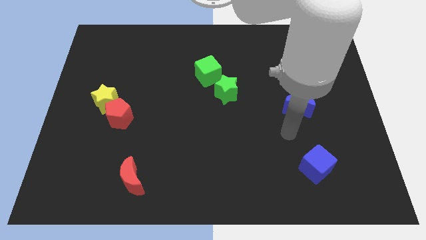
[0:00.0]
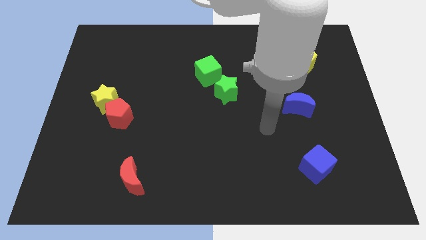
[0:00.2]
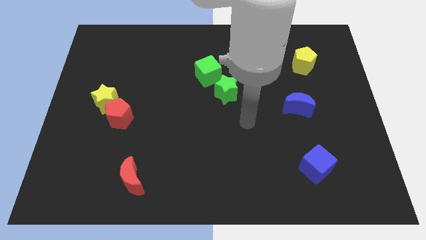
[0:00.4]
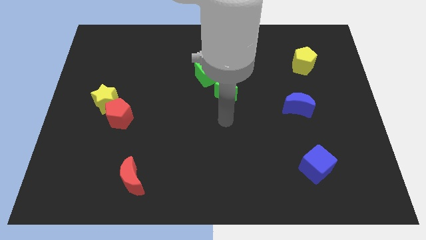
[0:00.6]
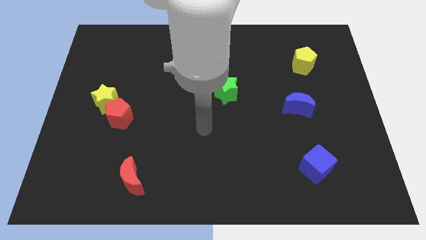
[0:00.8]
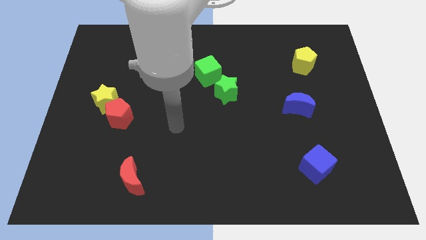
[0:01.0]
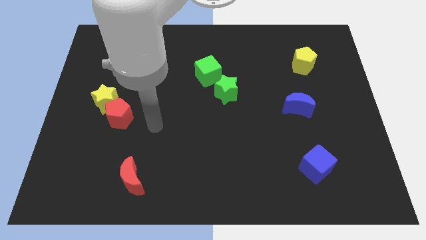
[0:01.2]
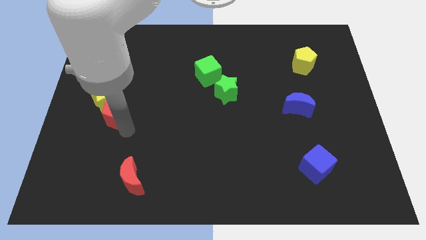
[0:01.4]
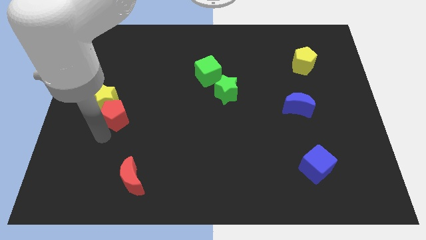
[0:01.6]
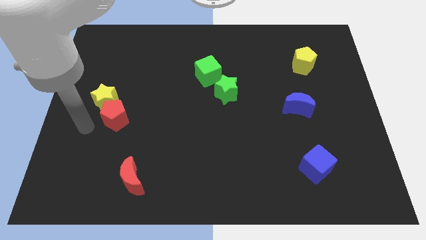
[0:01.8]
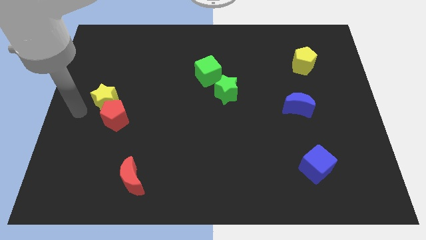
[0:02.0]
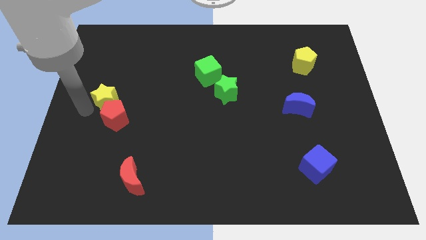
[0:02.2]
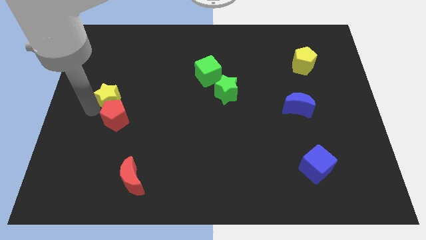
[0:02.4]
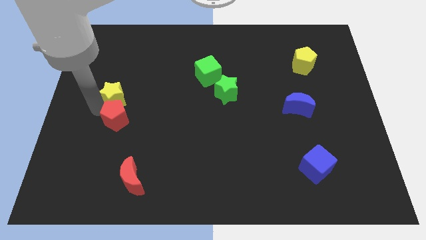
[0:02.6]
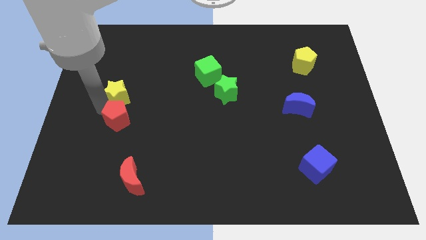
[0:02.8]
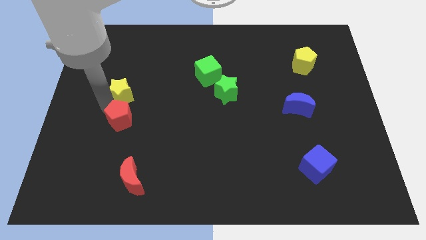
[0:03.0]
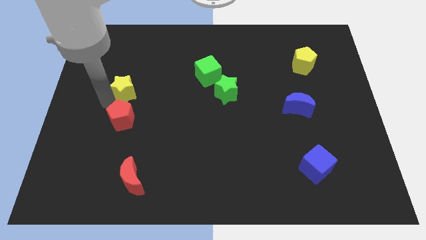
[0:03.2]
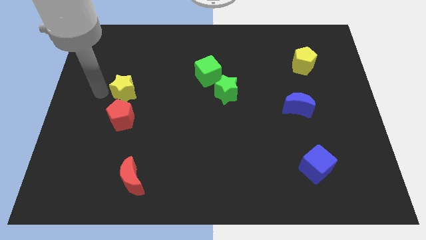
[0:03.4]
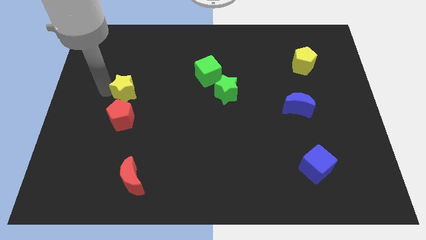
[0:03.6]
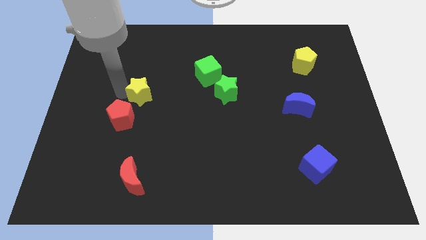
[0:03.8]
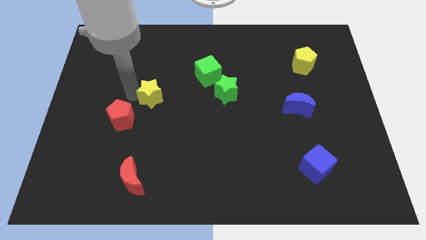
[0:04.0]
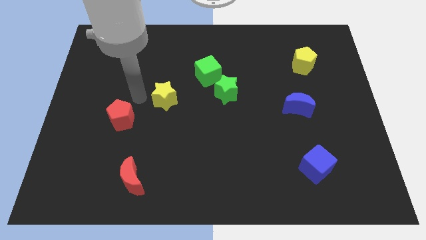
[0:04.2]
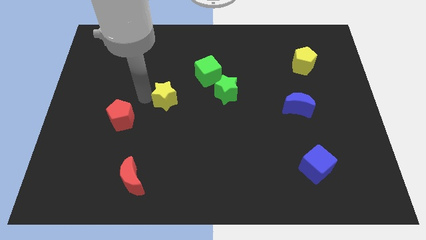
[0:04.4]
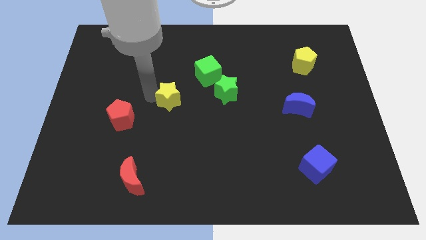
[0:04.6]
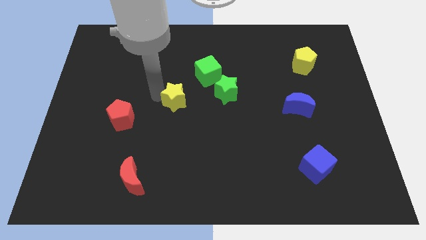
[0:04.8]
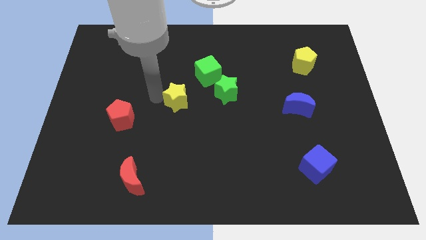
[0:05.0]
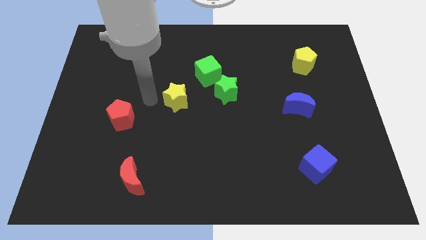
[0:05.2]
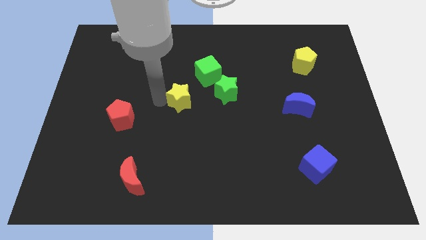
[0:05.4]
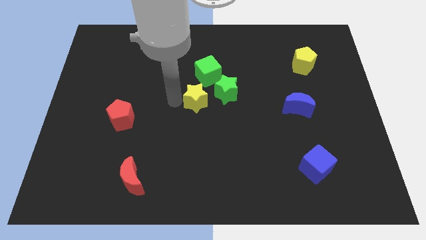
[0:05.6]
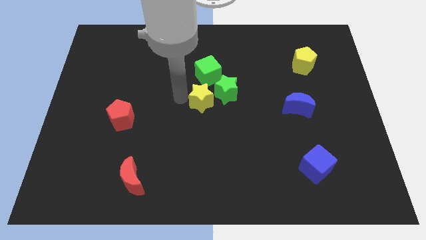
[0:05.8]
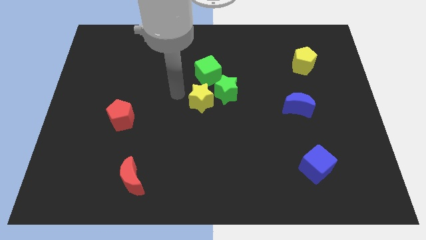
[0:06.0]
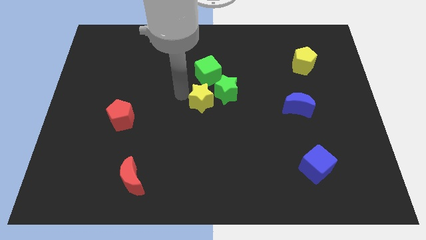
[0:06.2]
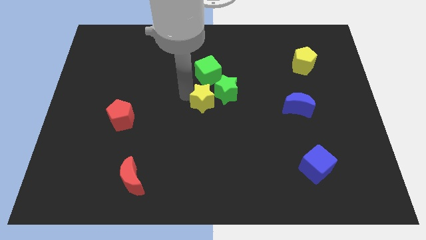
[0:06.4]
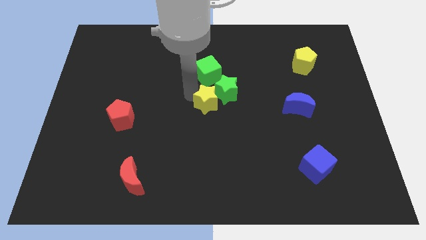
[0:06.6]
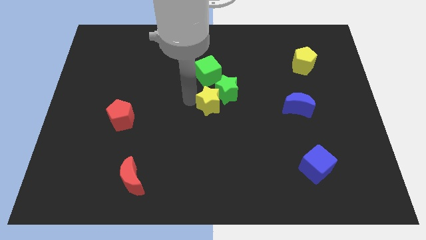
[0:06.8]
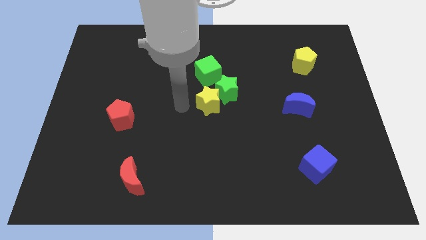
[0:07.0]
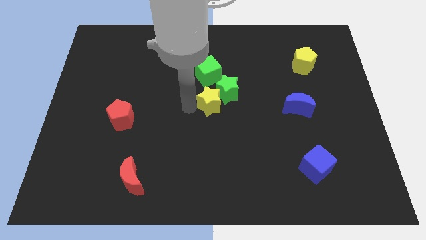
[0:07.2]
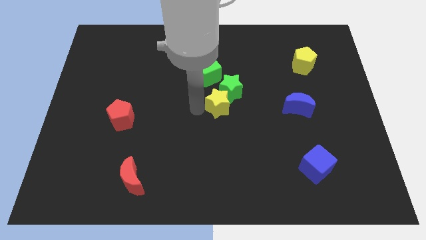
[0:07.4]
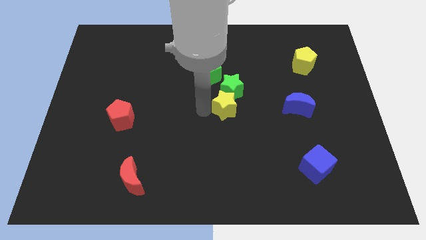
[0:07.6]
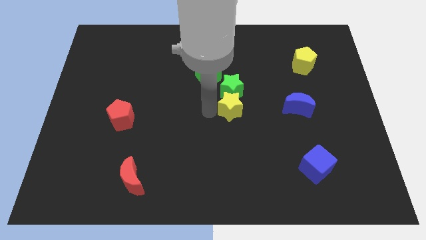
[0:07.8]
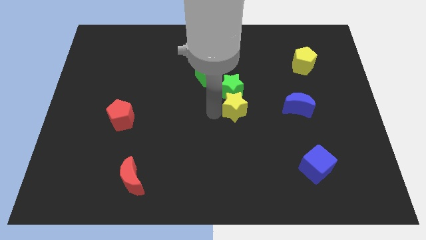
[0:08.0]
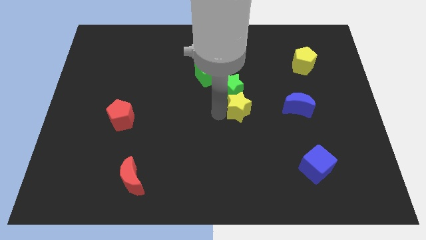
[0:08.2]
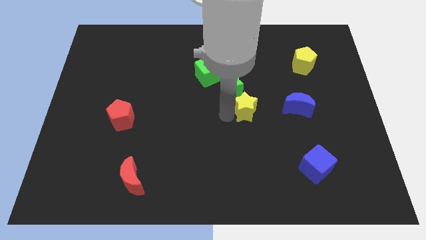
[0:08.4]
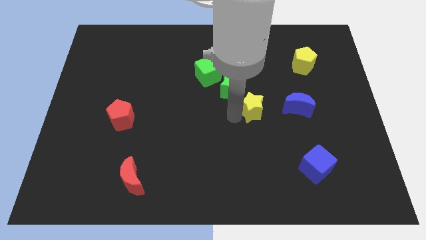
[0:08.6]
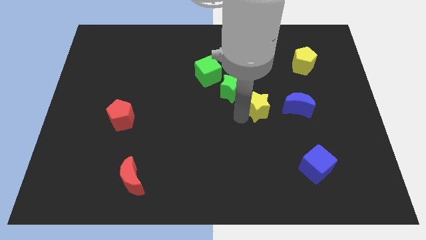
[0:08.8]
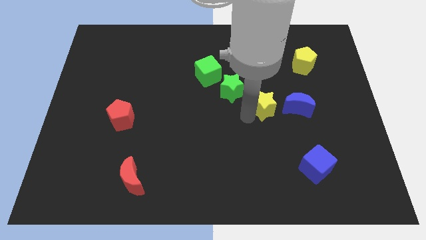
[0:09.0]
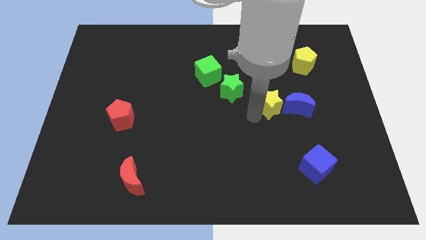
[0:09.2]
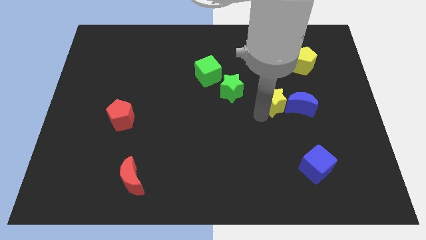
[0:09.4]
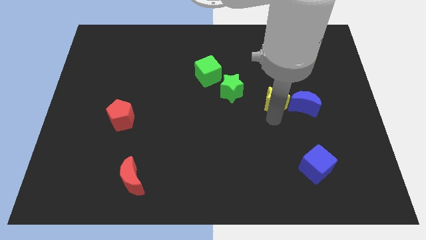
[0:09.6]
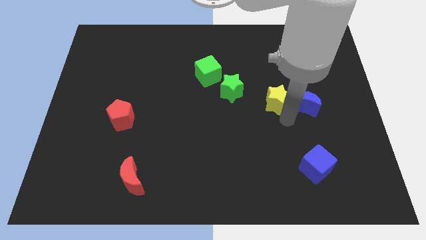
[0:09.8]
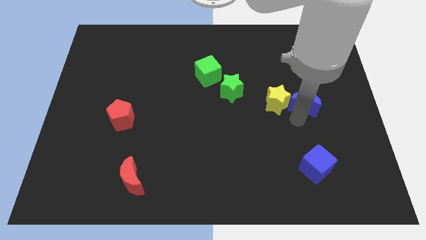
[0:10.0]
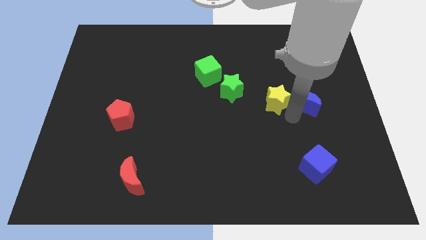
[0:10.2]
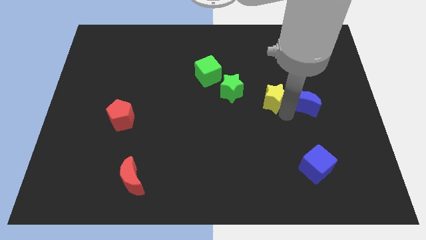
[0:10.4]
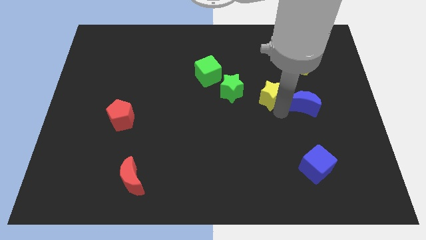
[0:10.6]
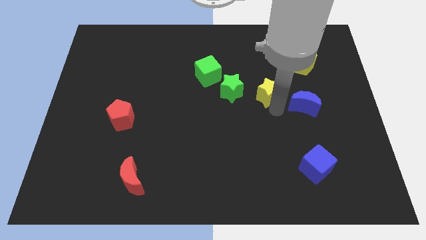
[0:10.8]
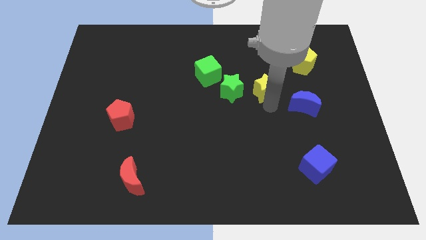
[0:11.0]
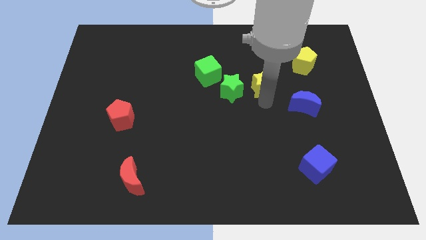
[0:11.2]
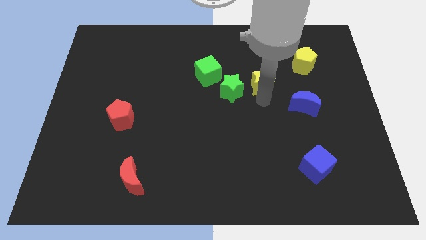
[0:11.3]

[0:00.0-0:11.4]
push the yellow star right of the green cube

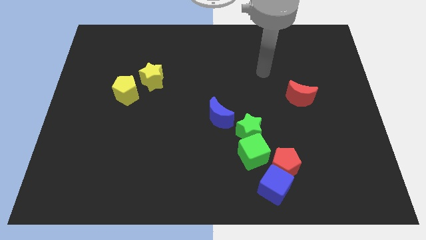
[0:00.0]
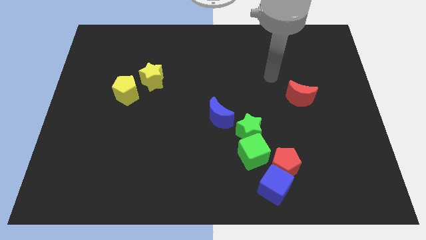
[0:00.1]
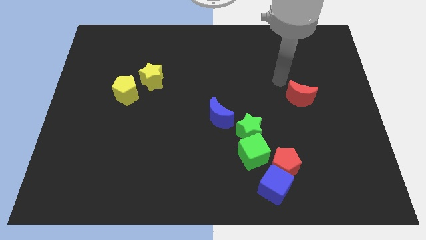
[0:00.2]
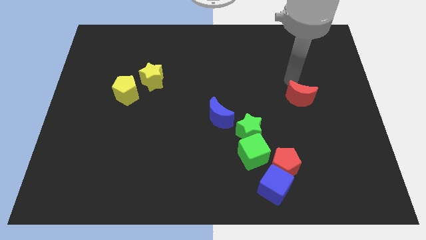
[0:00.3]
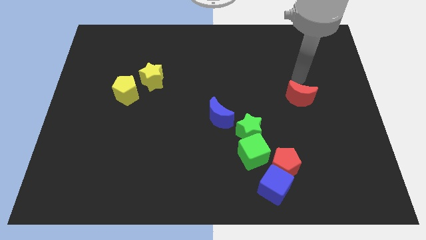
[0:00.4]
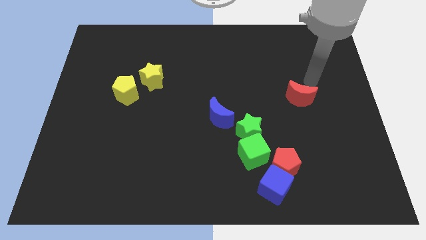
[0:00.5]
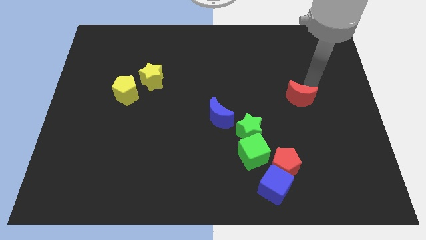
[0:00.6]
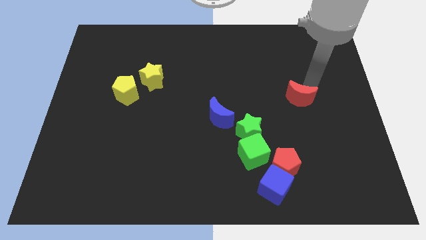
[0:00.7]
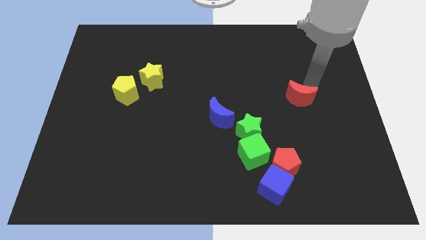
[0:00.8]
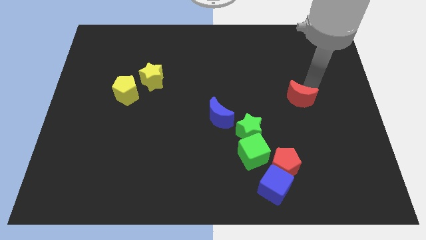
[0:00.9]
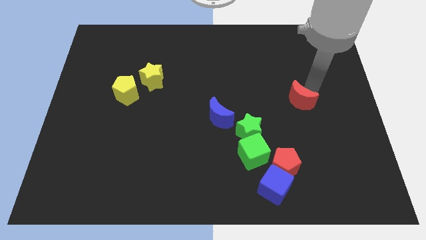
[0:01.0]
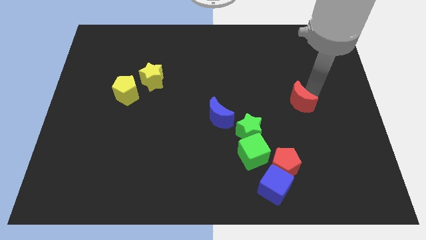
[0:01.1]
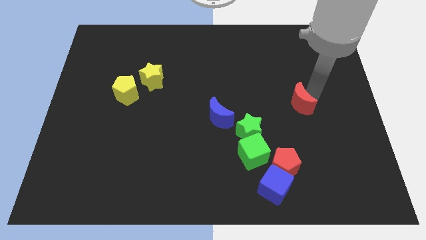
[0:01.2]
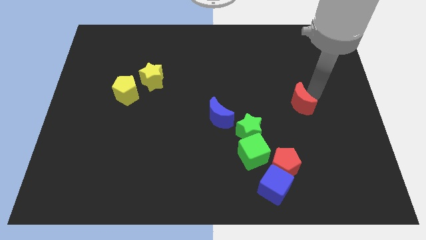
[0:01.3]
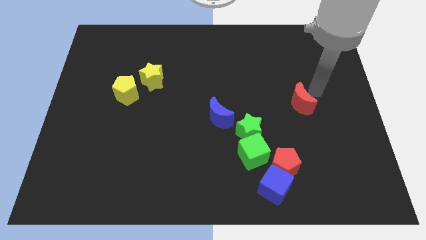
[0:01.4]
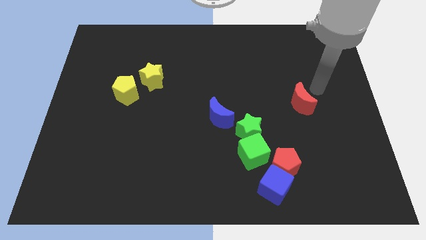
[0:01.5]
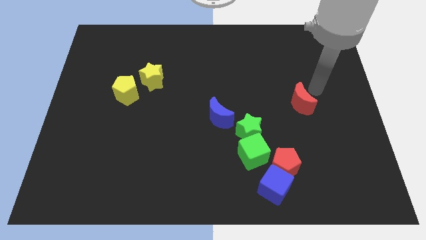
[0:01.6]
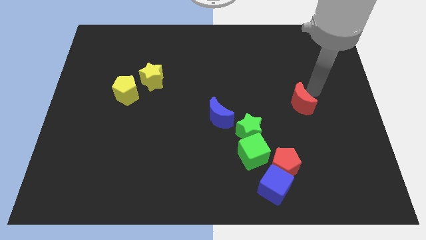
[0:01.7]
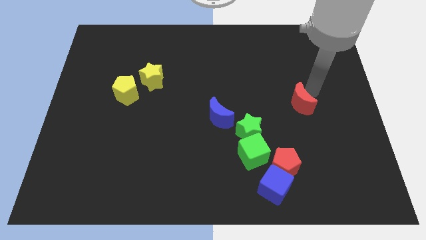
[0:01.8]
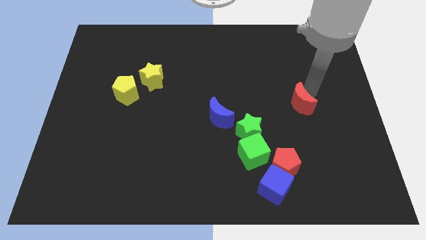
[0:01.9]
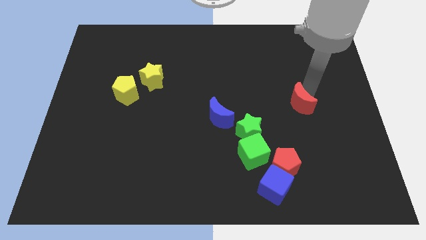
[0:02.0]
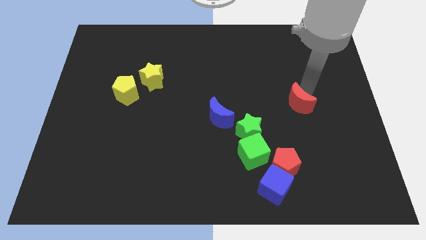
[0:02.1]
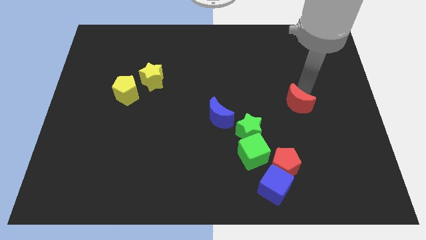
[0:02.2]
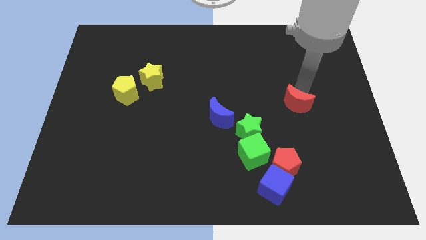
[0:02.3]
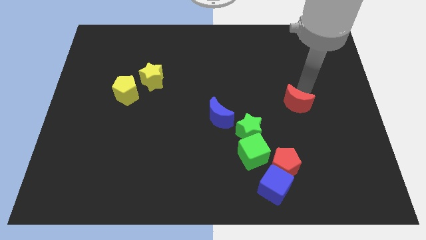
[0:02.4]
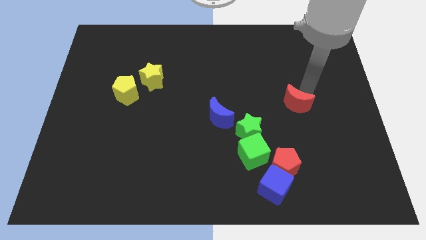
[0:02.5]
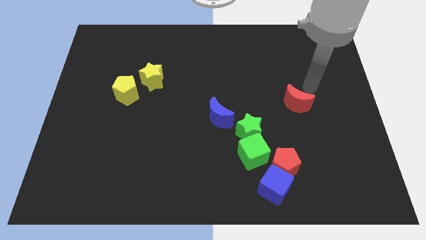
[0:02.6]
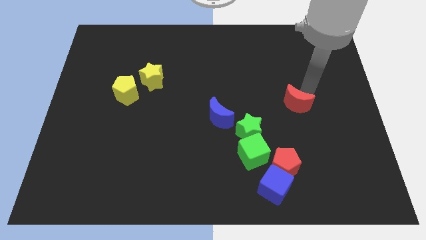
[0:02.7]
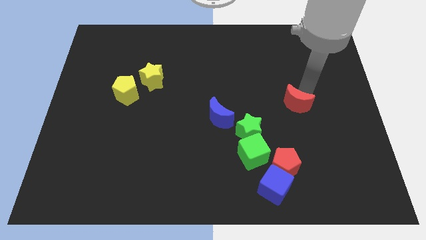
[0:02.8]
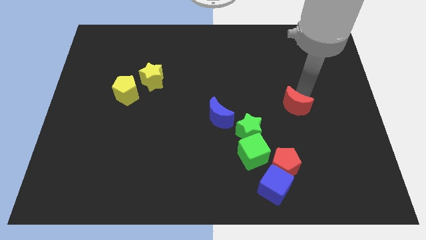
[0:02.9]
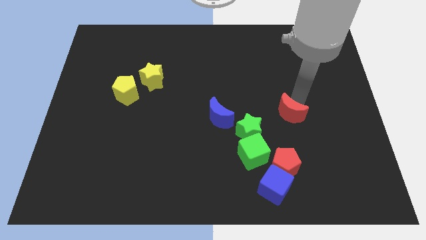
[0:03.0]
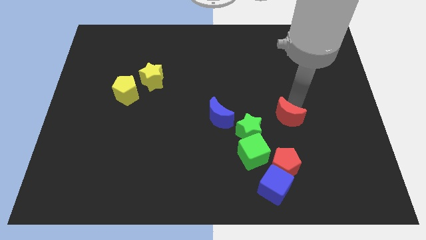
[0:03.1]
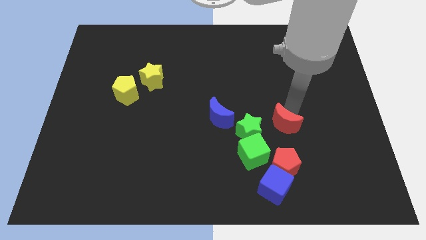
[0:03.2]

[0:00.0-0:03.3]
move the red moon diagonally up and to the right of the green cube
